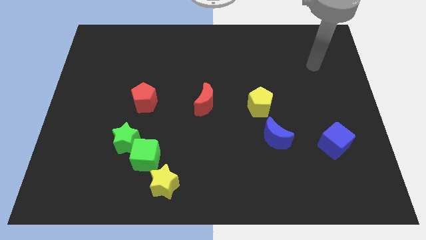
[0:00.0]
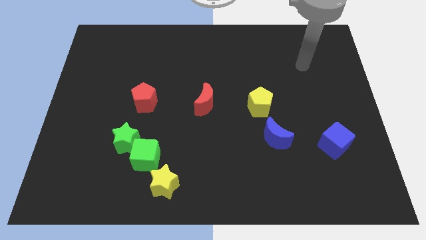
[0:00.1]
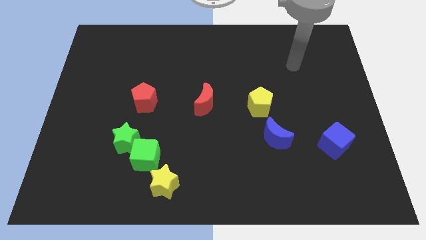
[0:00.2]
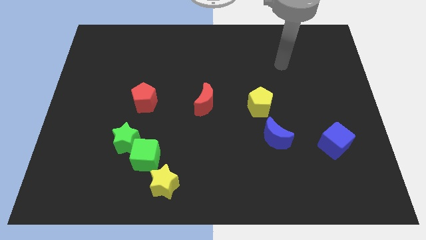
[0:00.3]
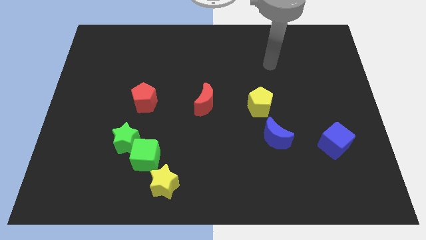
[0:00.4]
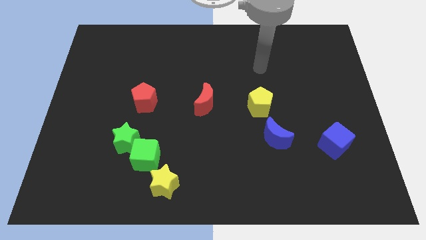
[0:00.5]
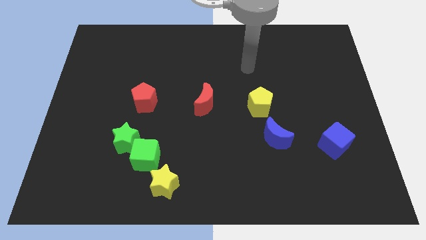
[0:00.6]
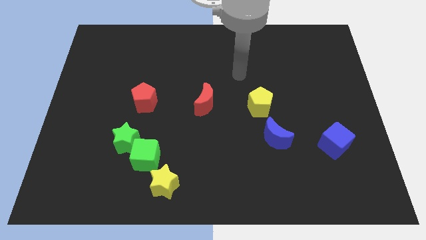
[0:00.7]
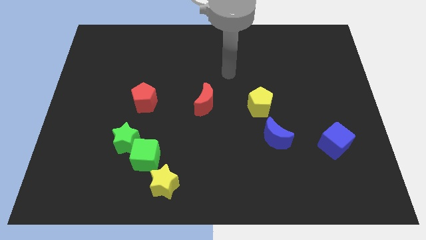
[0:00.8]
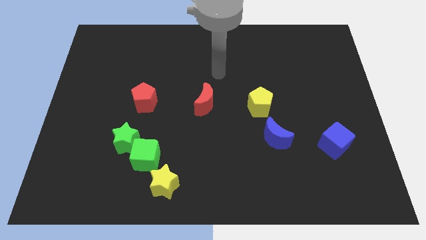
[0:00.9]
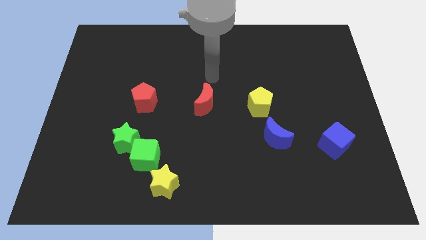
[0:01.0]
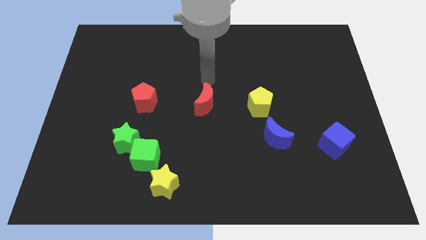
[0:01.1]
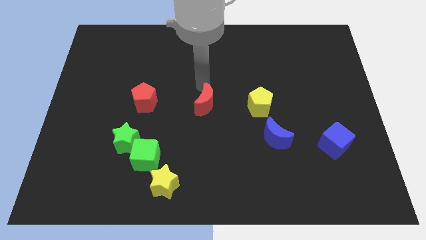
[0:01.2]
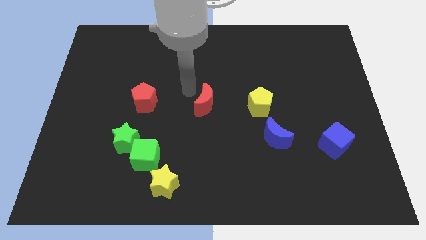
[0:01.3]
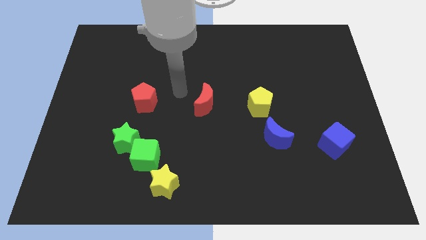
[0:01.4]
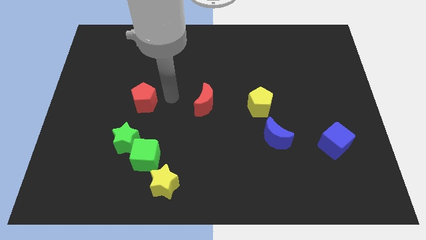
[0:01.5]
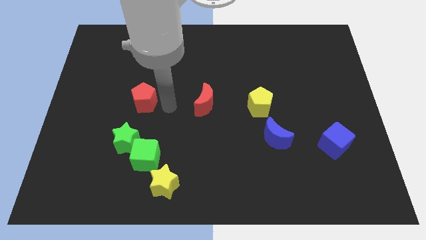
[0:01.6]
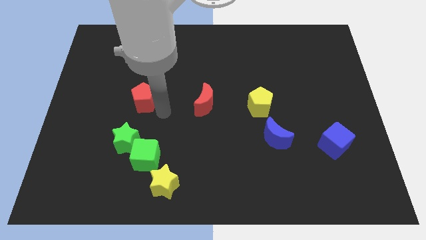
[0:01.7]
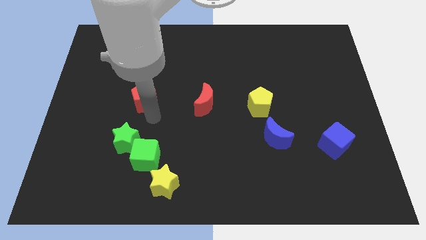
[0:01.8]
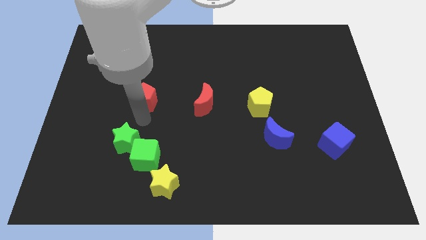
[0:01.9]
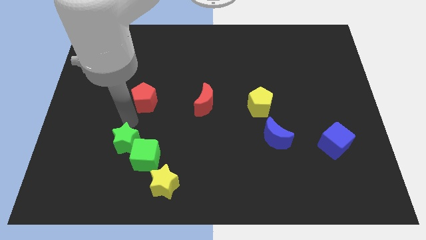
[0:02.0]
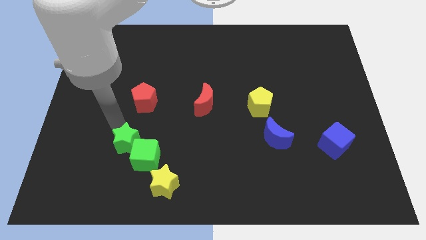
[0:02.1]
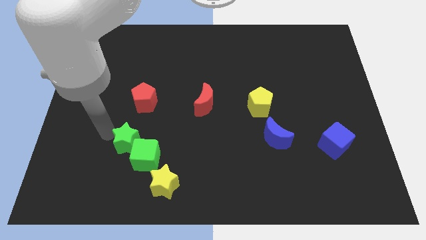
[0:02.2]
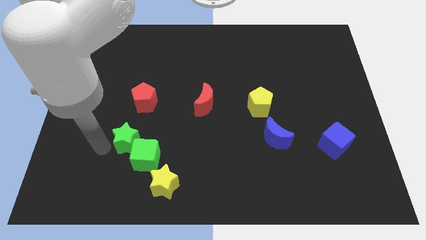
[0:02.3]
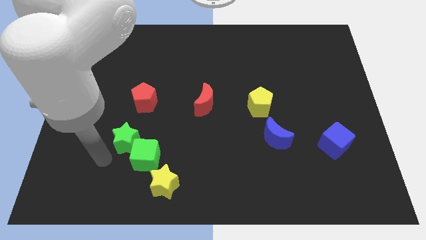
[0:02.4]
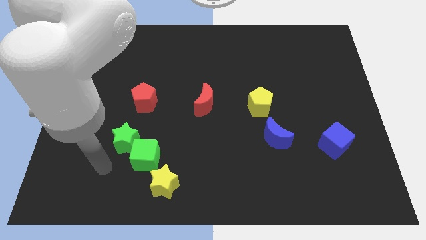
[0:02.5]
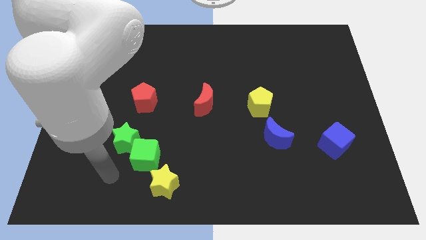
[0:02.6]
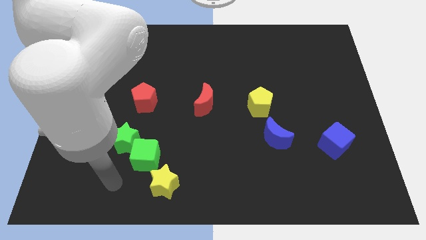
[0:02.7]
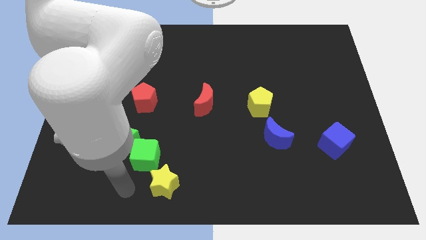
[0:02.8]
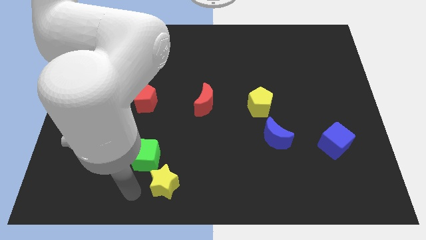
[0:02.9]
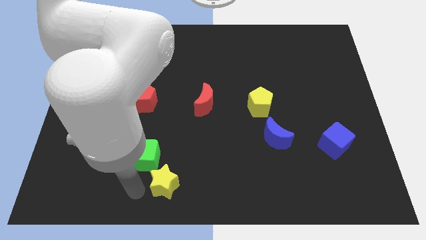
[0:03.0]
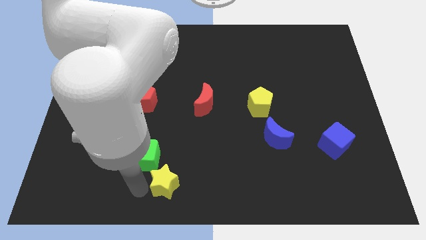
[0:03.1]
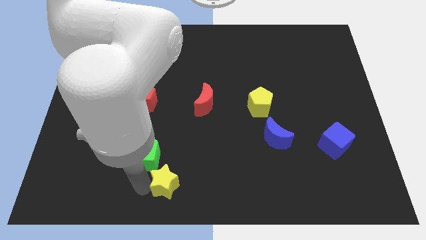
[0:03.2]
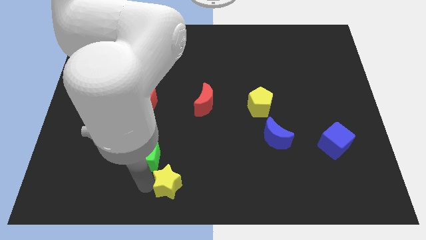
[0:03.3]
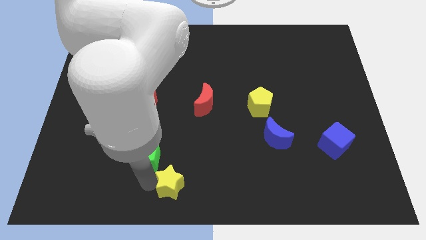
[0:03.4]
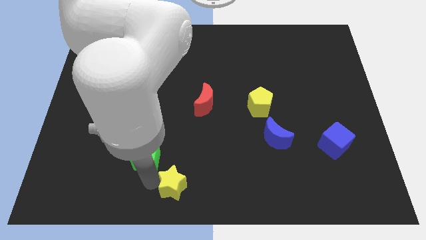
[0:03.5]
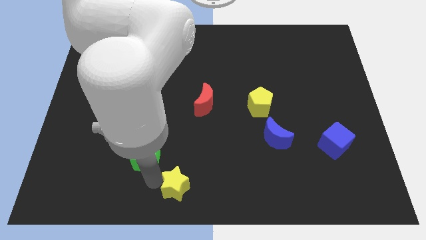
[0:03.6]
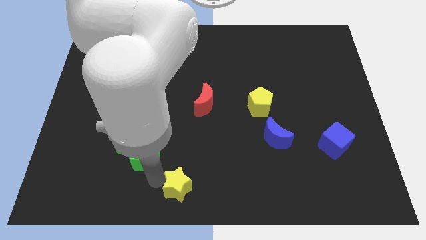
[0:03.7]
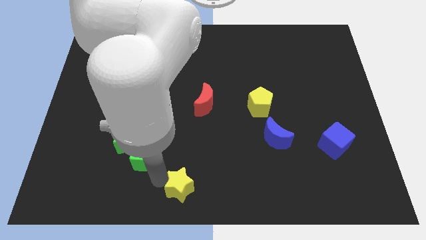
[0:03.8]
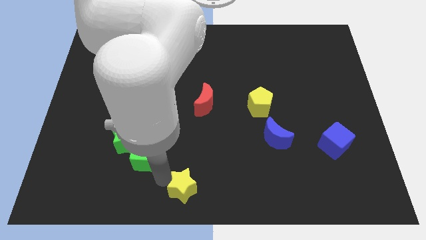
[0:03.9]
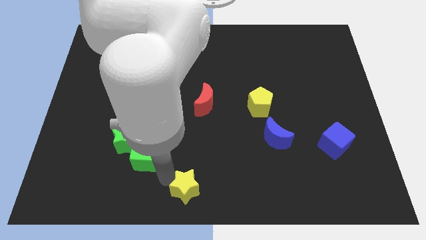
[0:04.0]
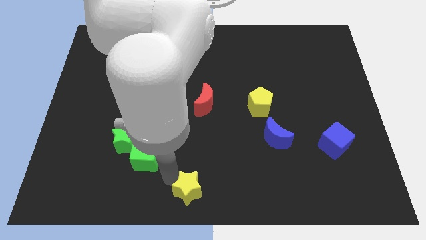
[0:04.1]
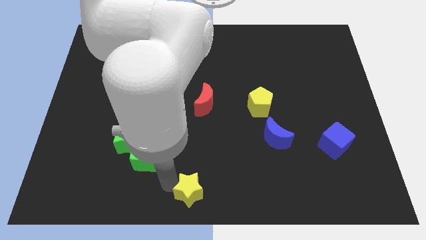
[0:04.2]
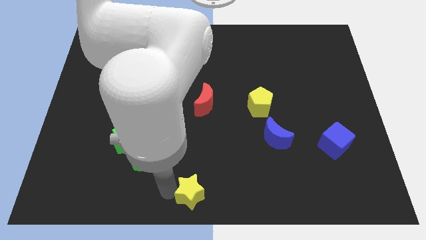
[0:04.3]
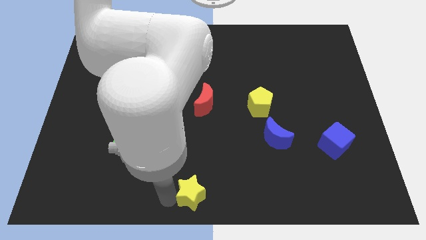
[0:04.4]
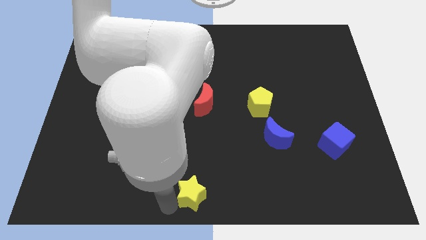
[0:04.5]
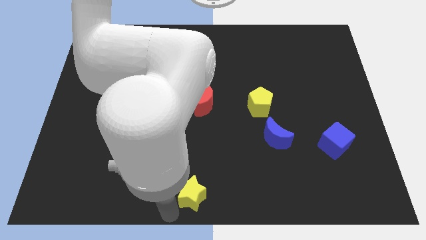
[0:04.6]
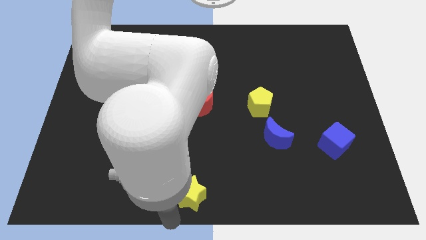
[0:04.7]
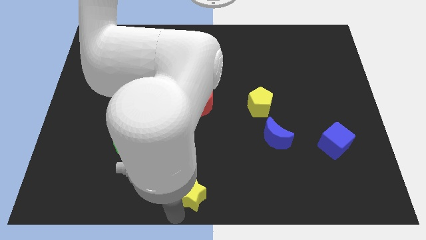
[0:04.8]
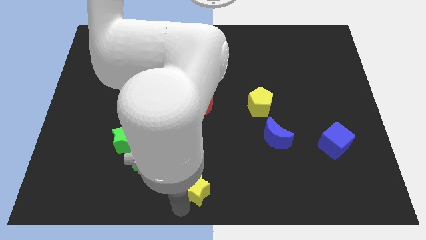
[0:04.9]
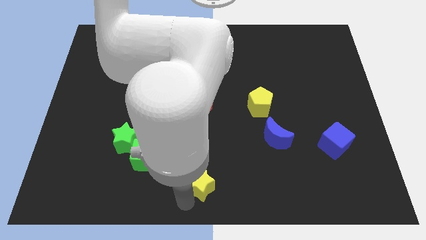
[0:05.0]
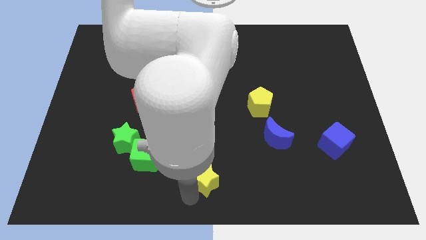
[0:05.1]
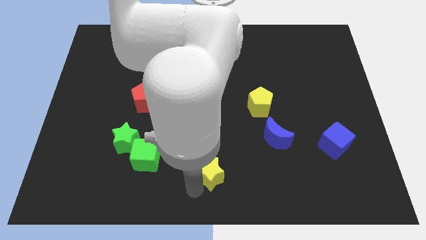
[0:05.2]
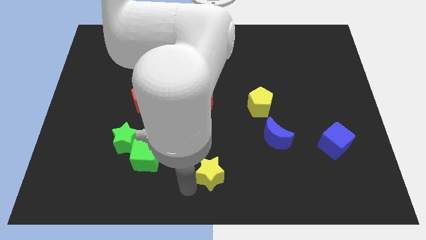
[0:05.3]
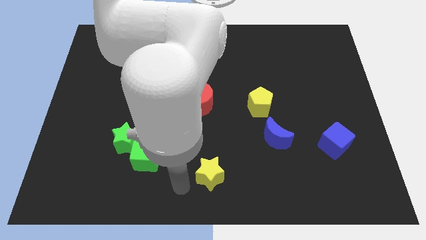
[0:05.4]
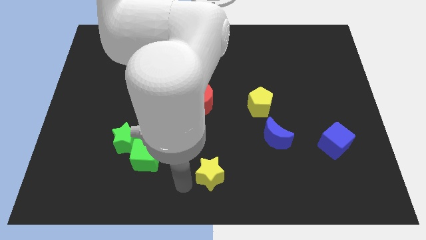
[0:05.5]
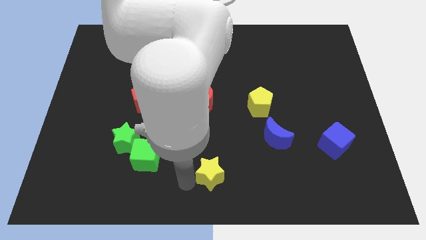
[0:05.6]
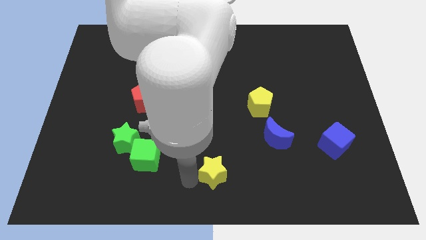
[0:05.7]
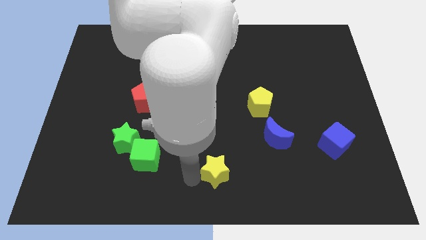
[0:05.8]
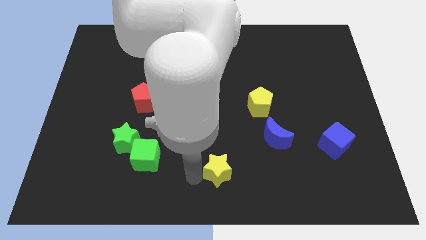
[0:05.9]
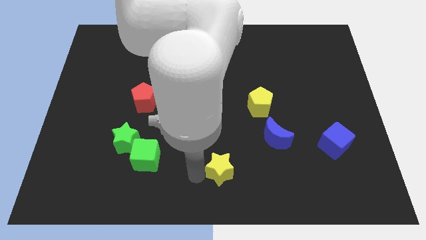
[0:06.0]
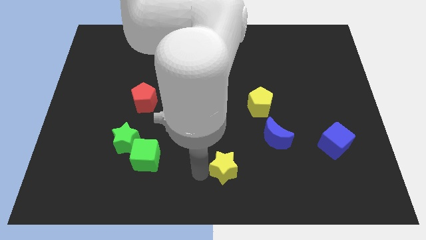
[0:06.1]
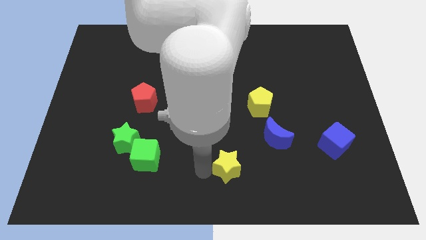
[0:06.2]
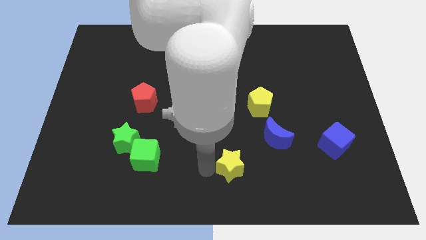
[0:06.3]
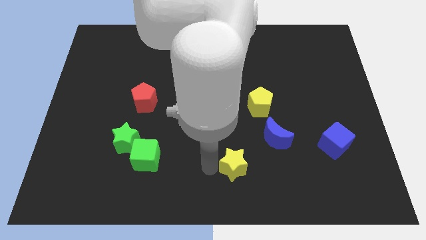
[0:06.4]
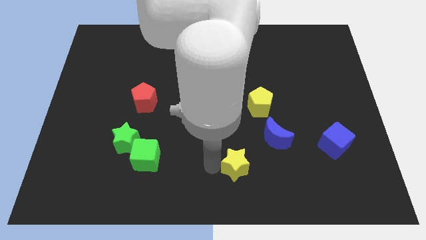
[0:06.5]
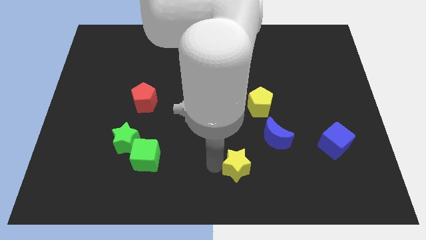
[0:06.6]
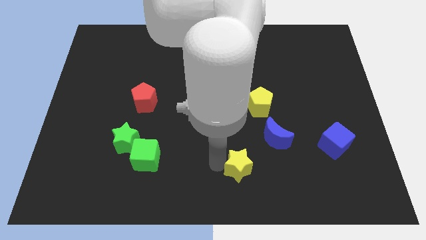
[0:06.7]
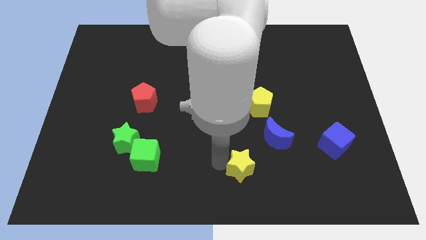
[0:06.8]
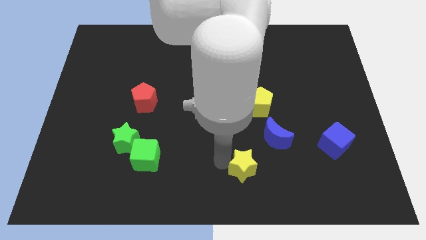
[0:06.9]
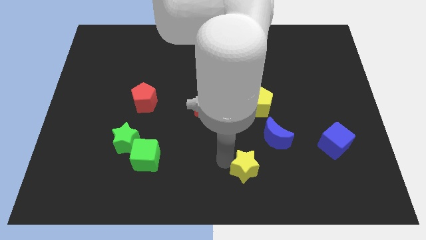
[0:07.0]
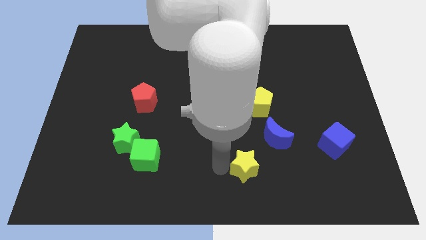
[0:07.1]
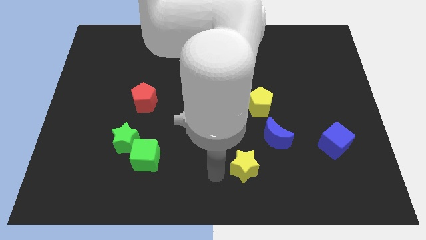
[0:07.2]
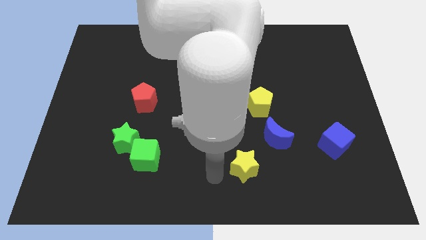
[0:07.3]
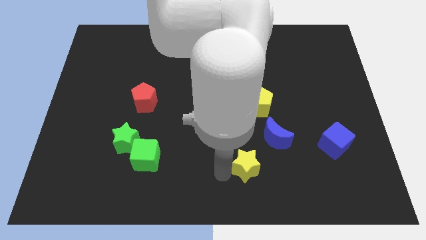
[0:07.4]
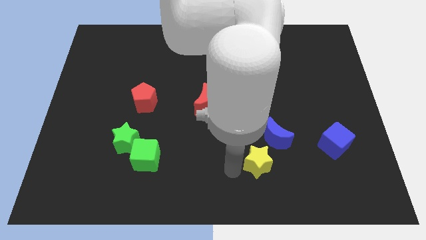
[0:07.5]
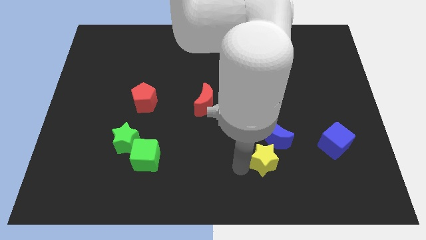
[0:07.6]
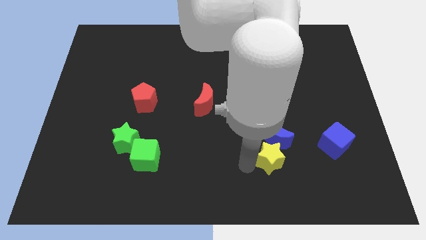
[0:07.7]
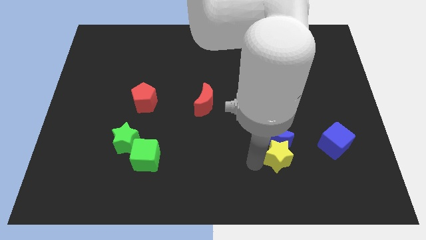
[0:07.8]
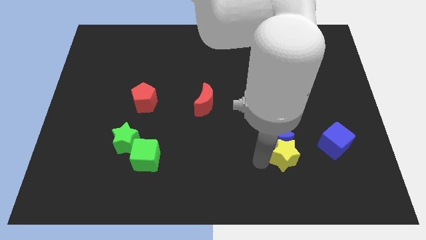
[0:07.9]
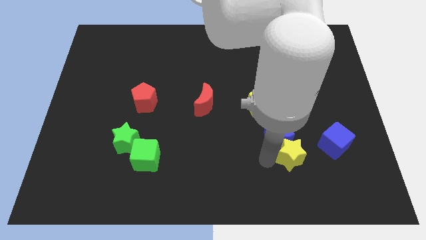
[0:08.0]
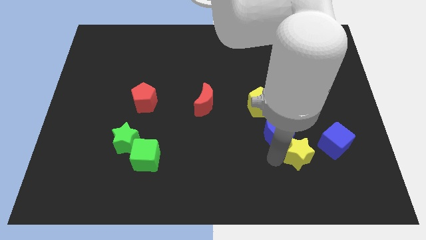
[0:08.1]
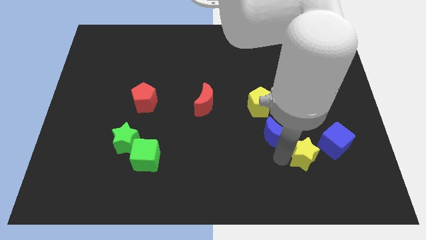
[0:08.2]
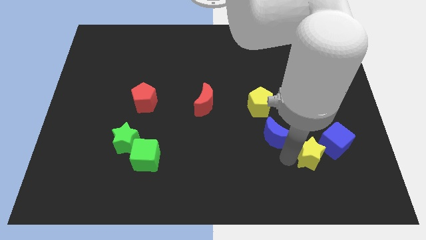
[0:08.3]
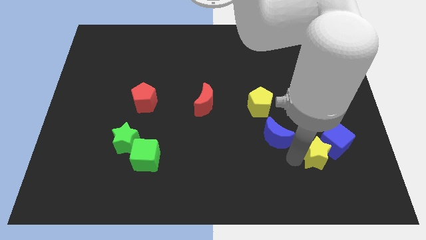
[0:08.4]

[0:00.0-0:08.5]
push the yellow star towards the blue cube
